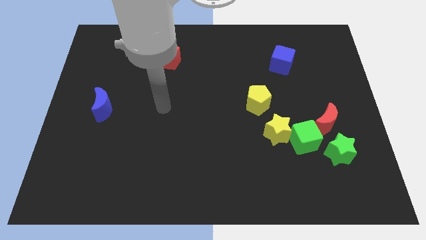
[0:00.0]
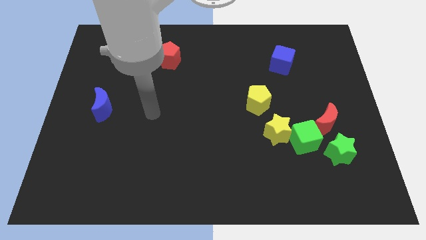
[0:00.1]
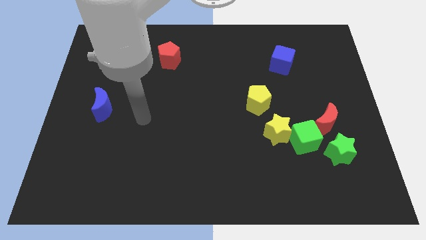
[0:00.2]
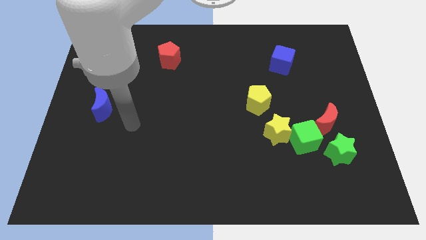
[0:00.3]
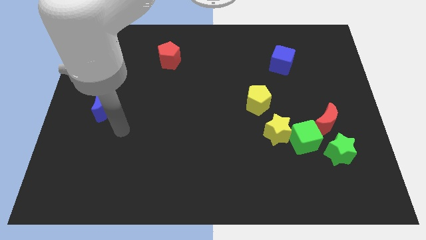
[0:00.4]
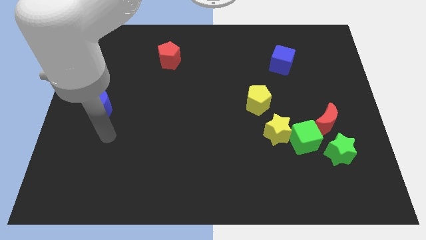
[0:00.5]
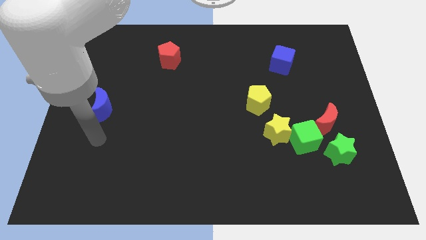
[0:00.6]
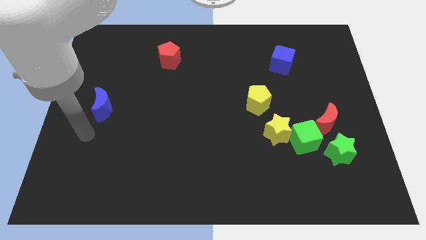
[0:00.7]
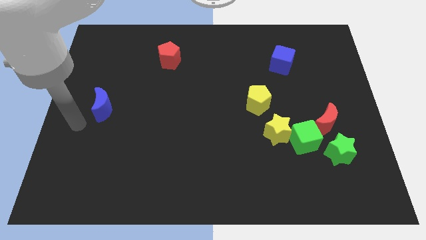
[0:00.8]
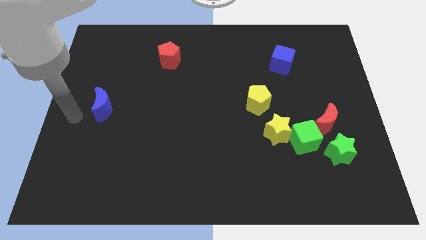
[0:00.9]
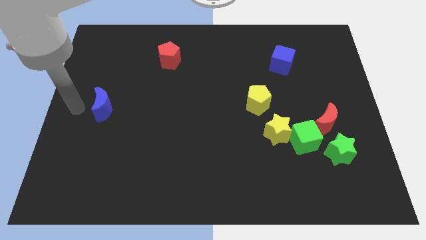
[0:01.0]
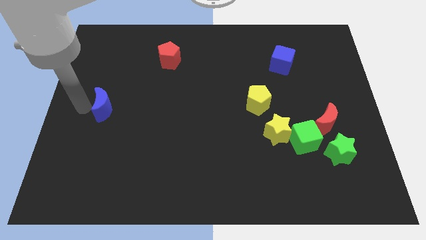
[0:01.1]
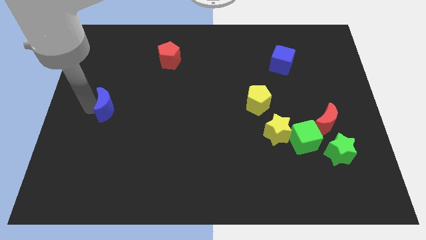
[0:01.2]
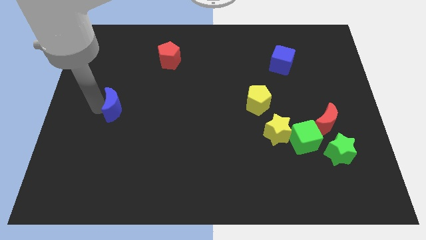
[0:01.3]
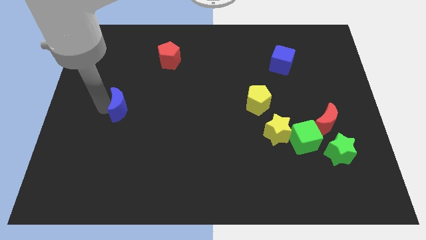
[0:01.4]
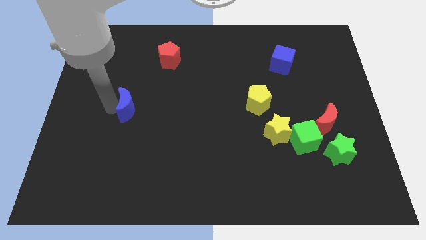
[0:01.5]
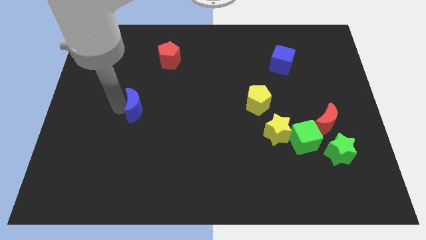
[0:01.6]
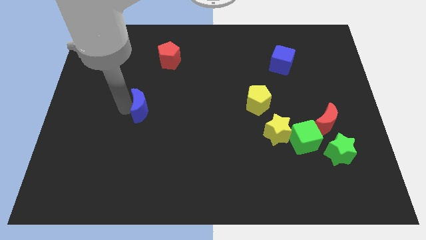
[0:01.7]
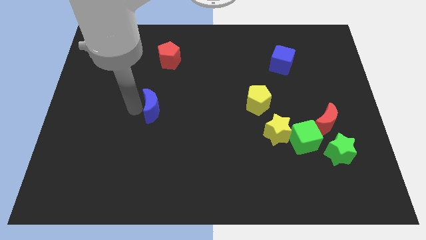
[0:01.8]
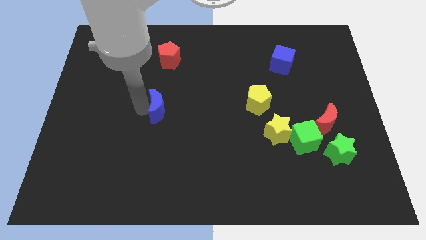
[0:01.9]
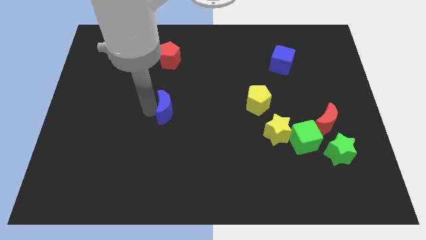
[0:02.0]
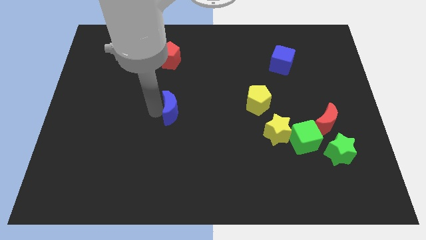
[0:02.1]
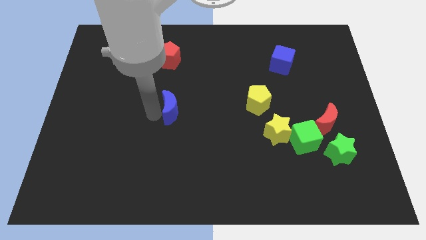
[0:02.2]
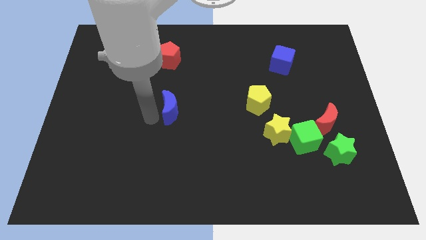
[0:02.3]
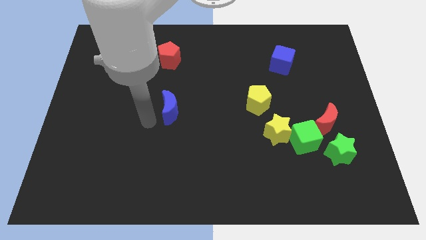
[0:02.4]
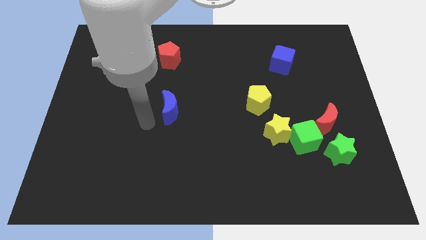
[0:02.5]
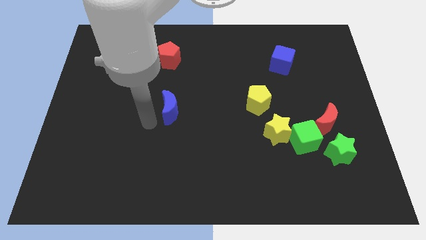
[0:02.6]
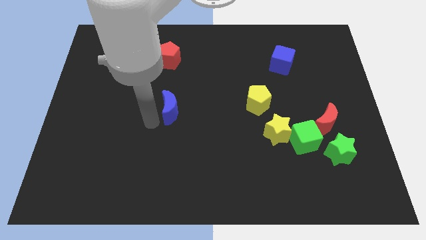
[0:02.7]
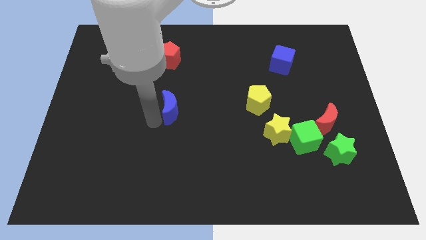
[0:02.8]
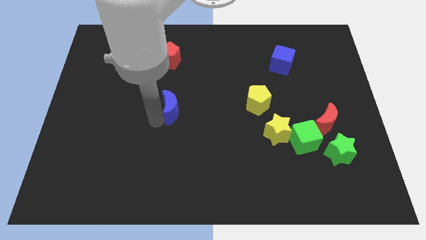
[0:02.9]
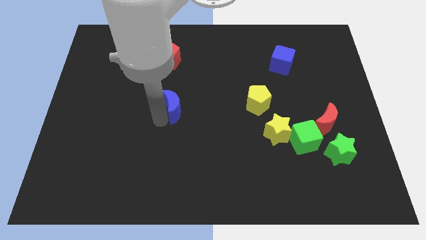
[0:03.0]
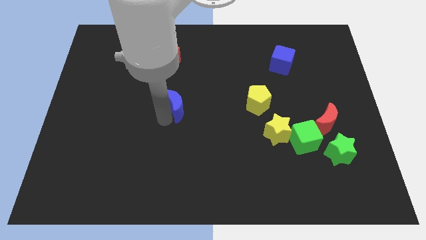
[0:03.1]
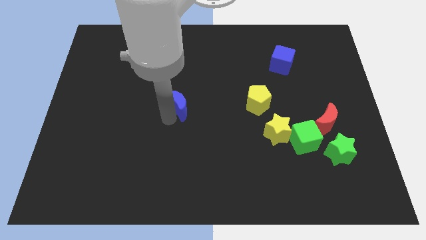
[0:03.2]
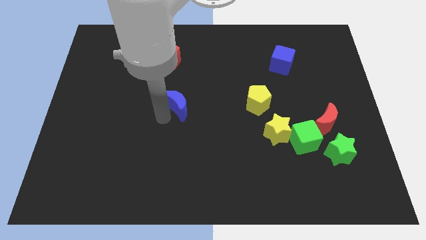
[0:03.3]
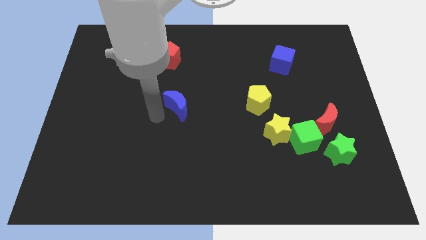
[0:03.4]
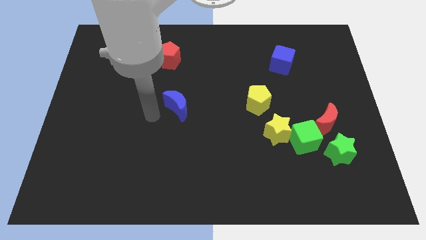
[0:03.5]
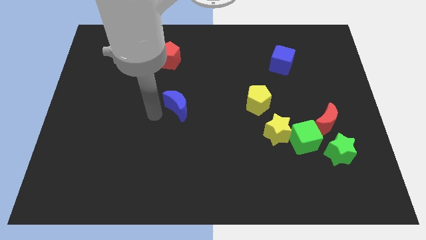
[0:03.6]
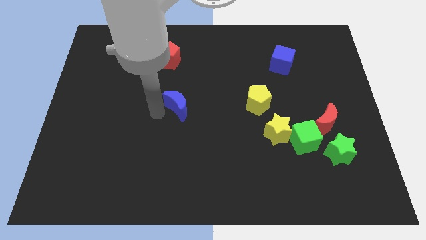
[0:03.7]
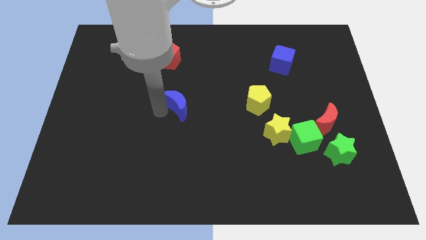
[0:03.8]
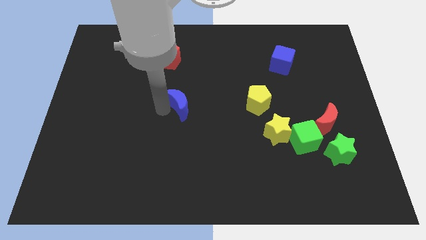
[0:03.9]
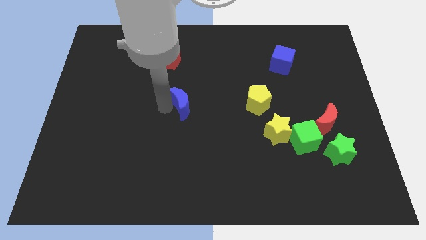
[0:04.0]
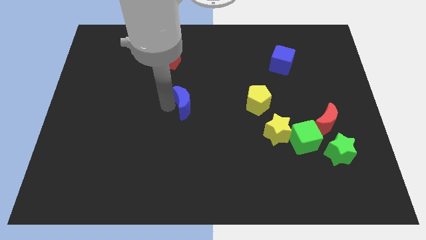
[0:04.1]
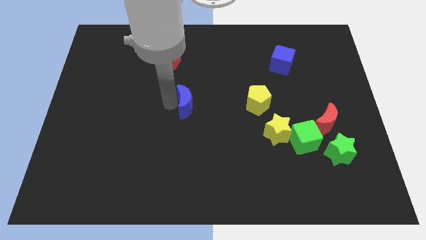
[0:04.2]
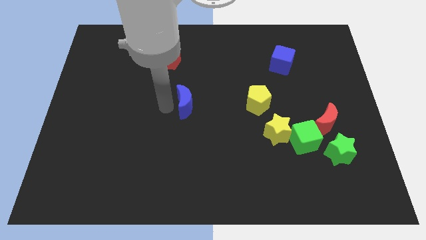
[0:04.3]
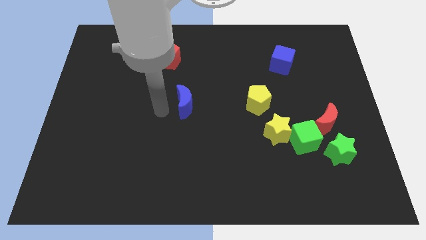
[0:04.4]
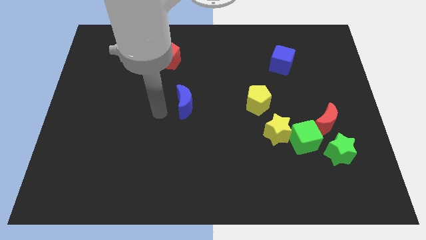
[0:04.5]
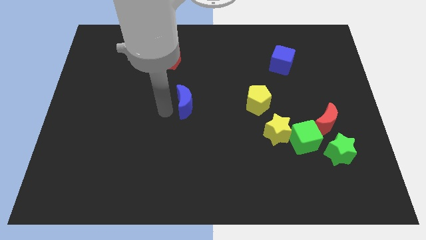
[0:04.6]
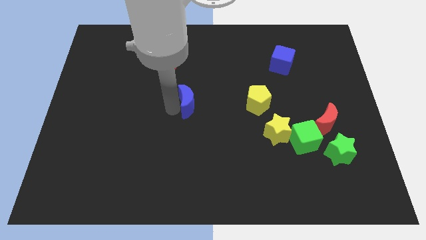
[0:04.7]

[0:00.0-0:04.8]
slide the blue moon to the right

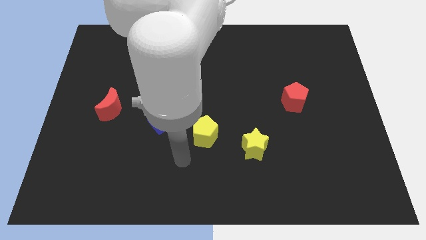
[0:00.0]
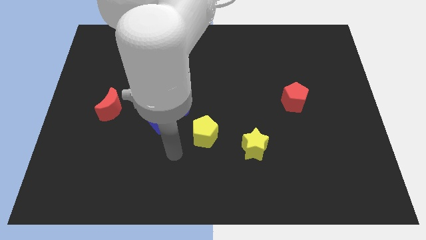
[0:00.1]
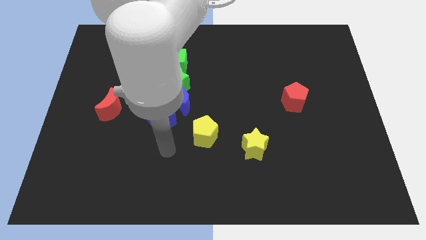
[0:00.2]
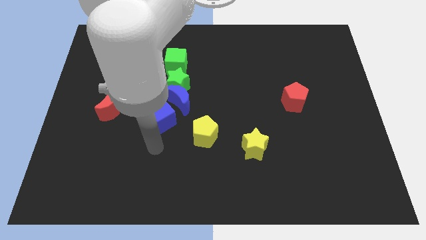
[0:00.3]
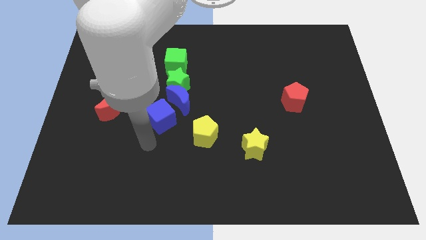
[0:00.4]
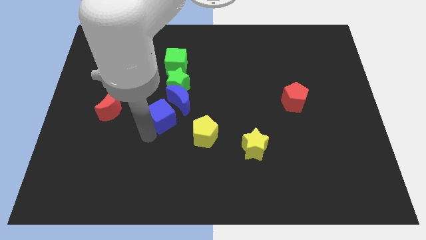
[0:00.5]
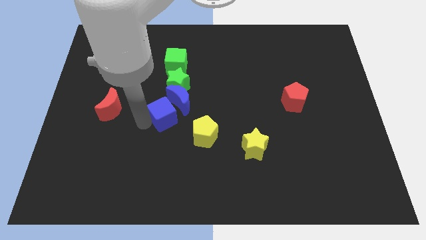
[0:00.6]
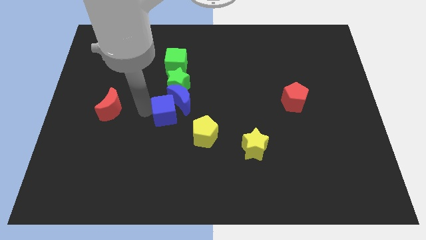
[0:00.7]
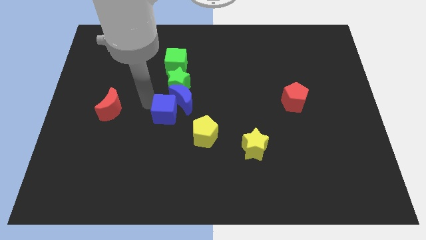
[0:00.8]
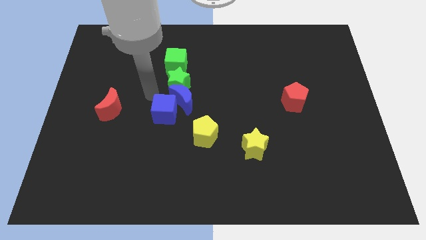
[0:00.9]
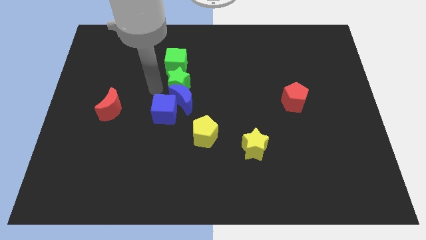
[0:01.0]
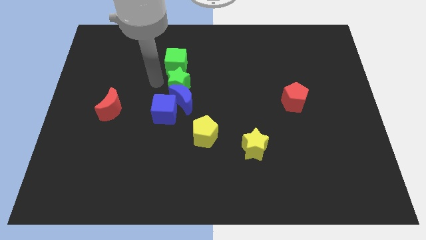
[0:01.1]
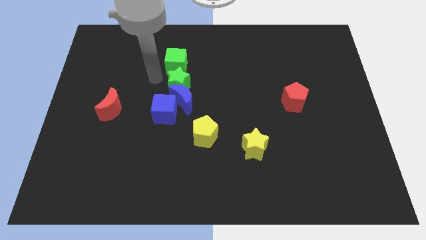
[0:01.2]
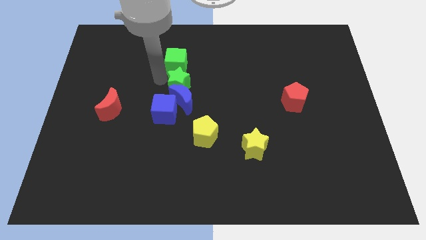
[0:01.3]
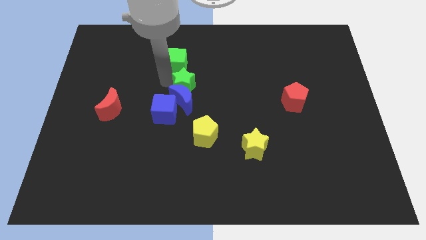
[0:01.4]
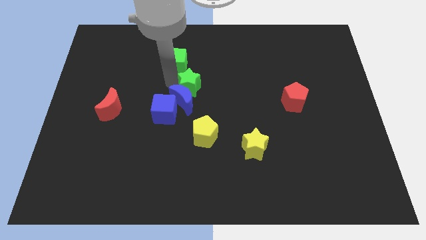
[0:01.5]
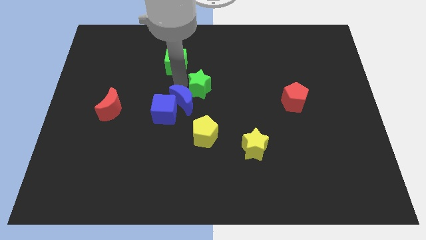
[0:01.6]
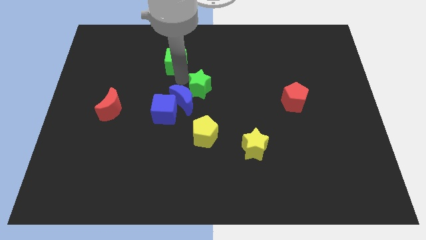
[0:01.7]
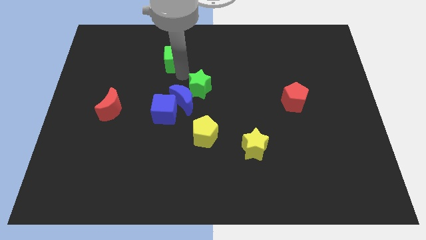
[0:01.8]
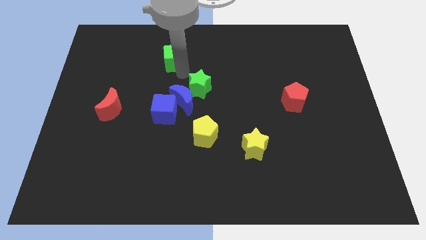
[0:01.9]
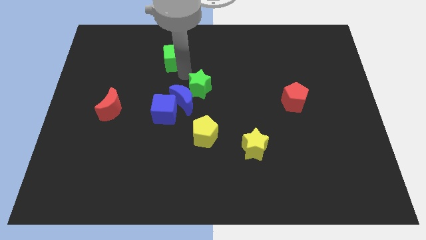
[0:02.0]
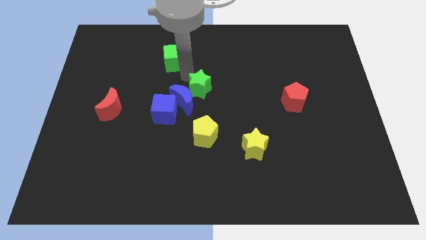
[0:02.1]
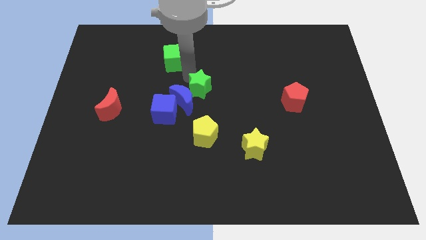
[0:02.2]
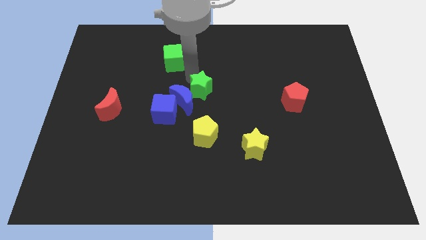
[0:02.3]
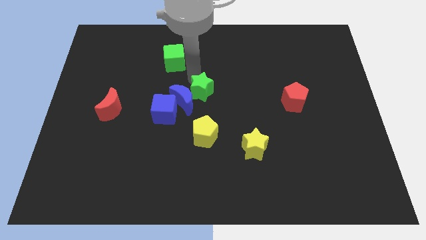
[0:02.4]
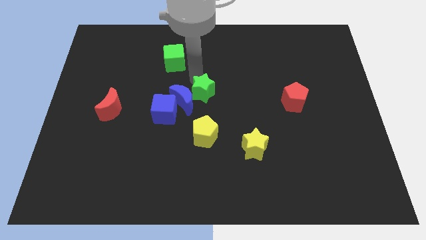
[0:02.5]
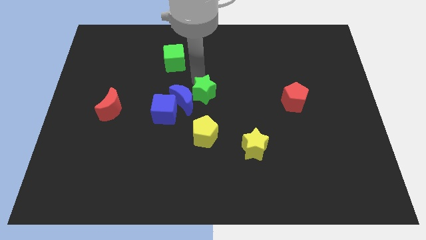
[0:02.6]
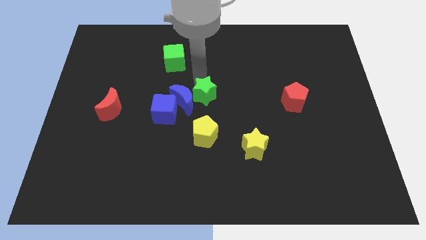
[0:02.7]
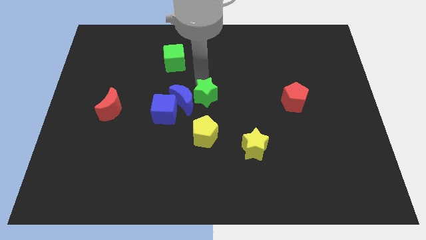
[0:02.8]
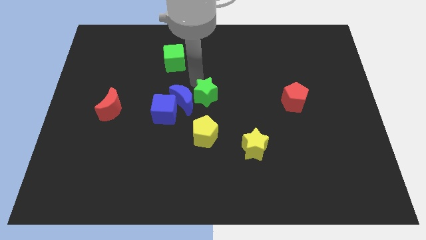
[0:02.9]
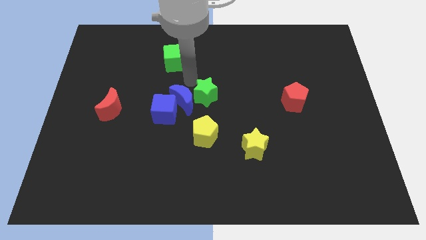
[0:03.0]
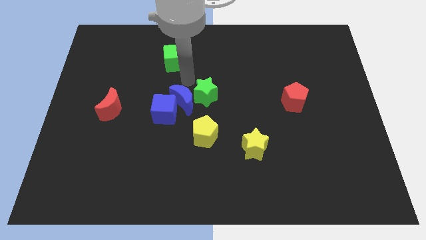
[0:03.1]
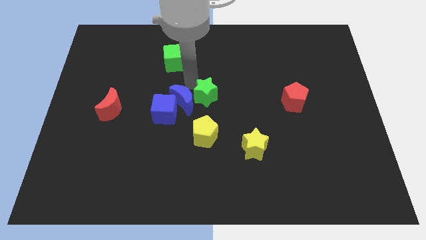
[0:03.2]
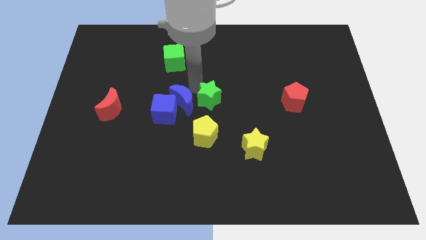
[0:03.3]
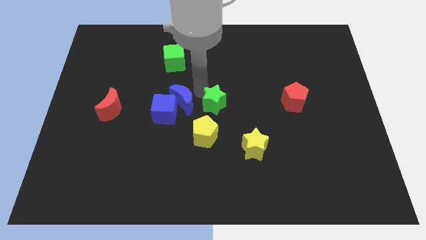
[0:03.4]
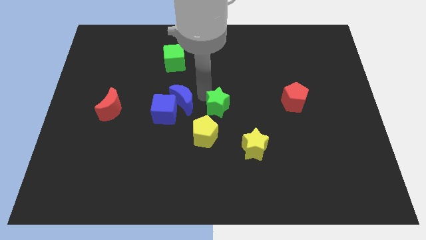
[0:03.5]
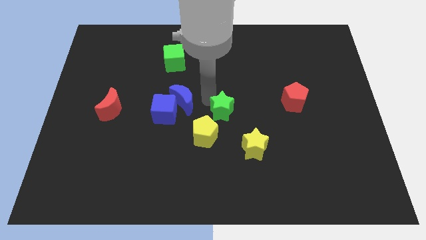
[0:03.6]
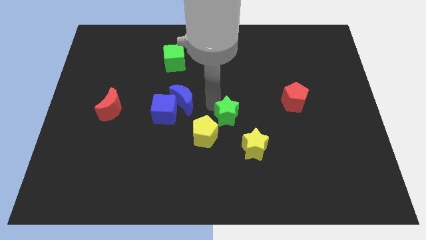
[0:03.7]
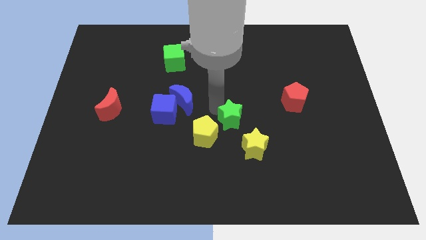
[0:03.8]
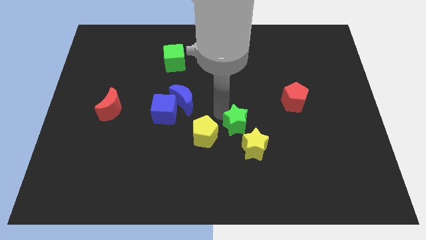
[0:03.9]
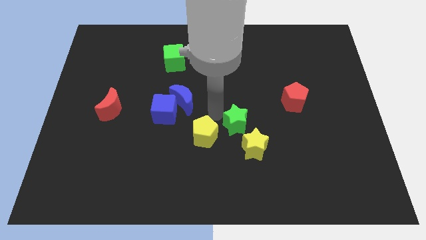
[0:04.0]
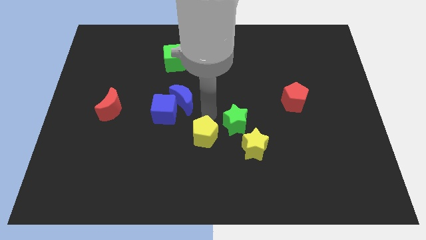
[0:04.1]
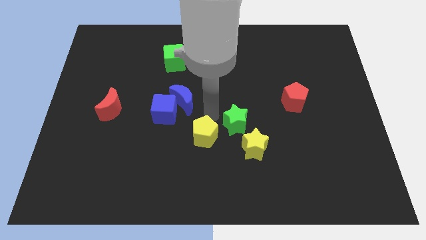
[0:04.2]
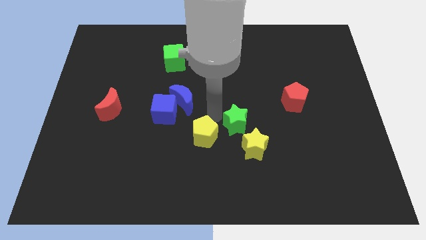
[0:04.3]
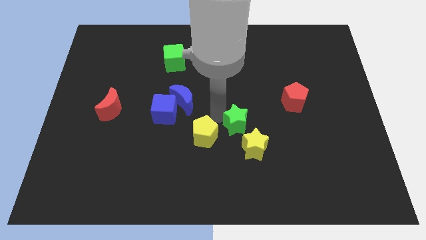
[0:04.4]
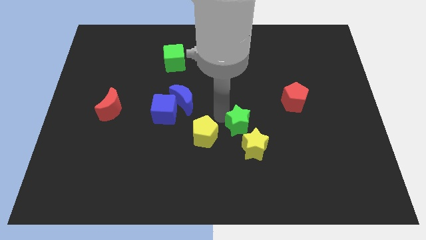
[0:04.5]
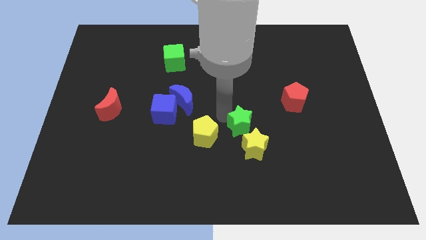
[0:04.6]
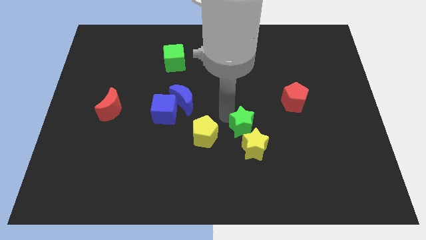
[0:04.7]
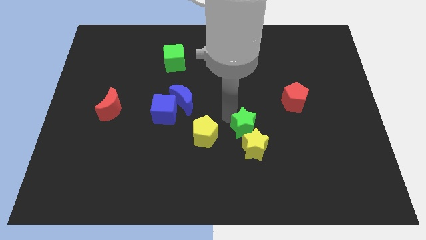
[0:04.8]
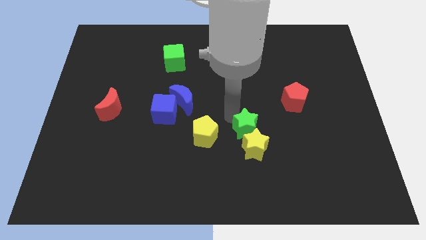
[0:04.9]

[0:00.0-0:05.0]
slide the green star down and then to the right
